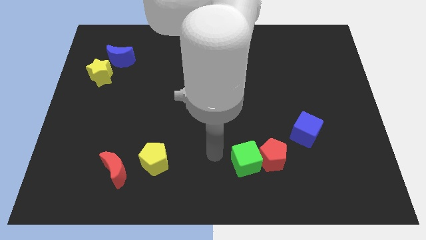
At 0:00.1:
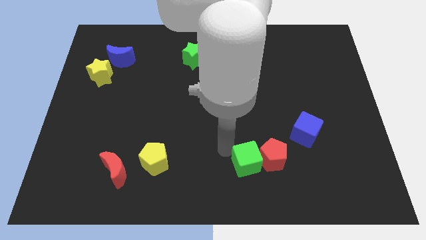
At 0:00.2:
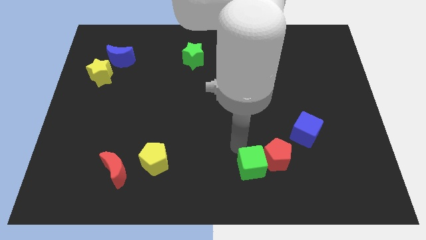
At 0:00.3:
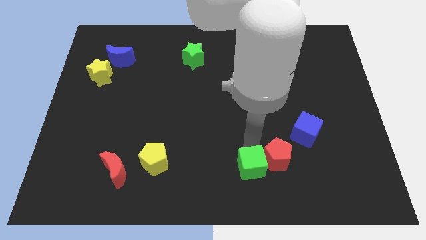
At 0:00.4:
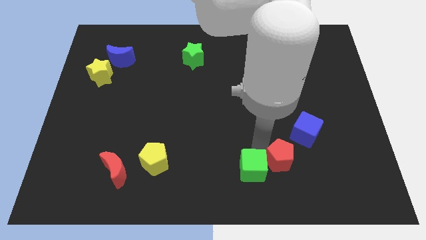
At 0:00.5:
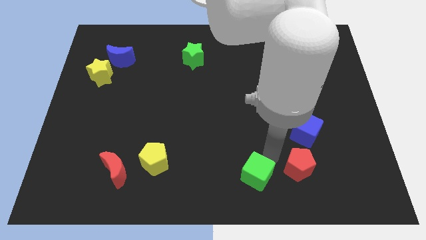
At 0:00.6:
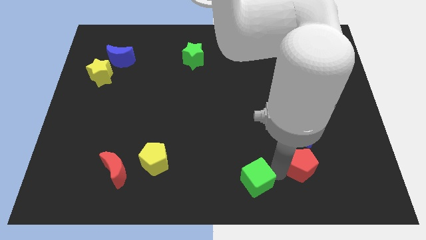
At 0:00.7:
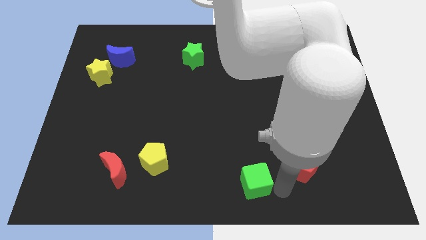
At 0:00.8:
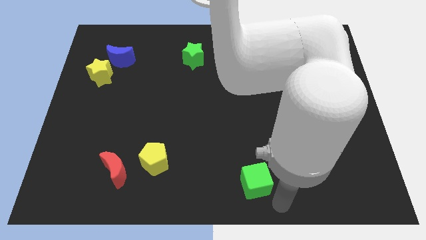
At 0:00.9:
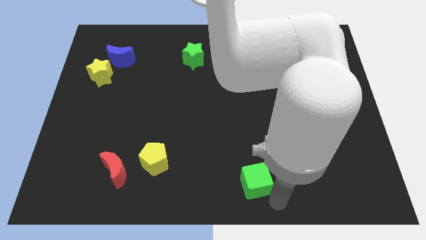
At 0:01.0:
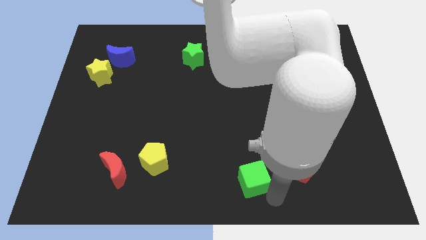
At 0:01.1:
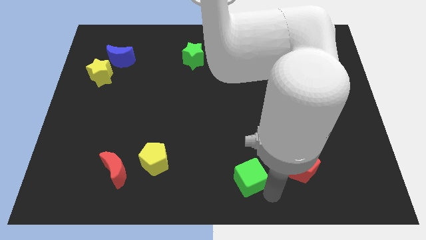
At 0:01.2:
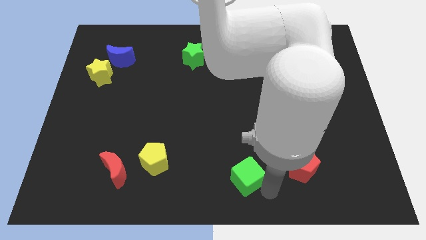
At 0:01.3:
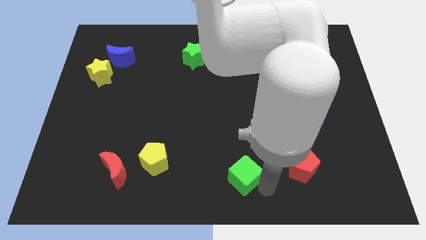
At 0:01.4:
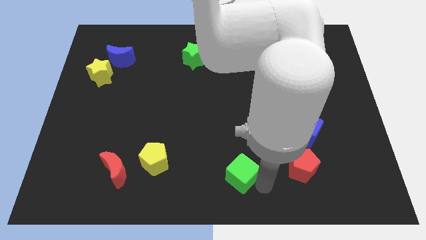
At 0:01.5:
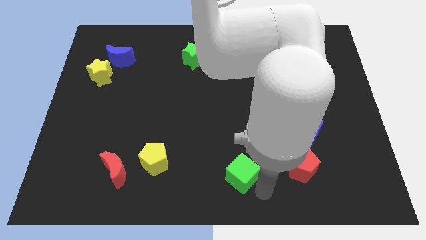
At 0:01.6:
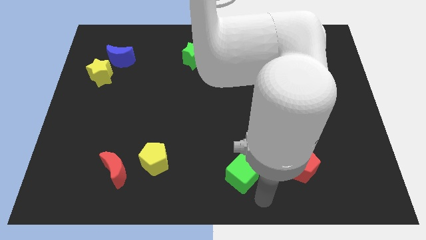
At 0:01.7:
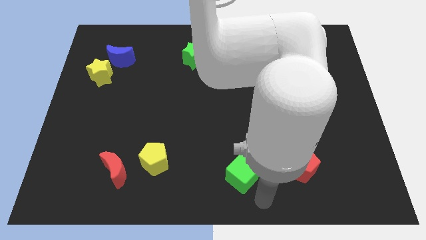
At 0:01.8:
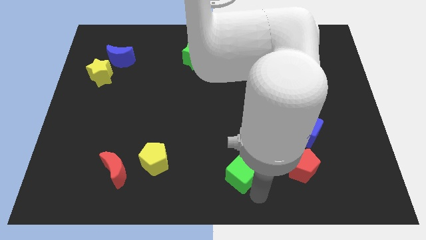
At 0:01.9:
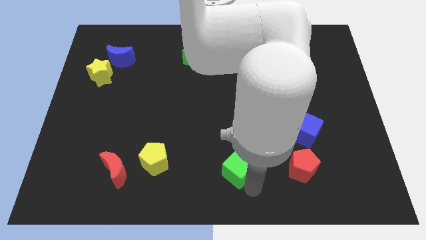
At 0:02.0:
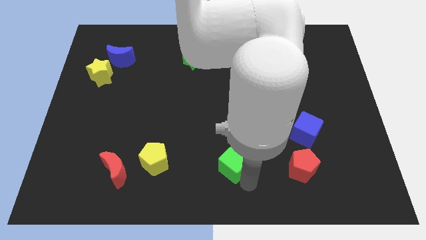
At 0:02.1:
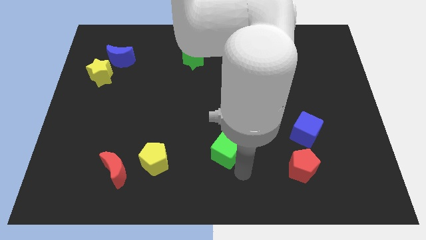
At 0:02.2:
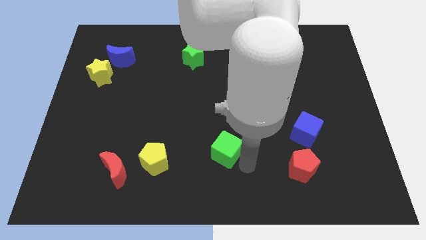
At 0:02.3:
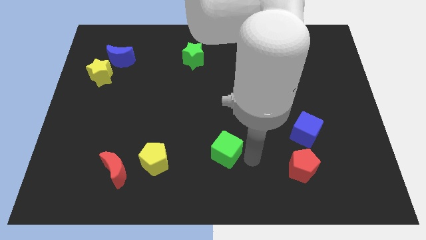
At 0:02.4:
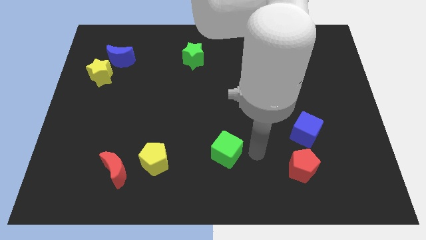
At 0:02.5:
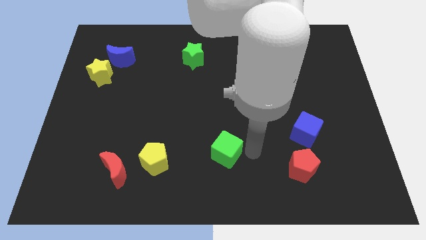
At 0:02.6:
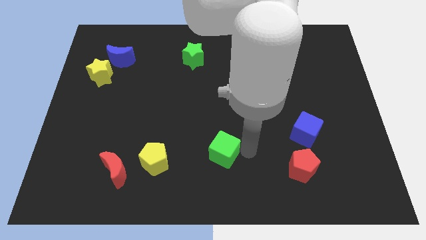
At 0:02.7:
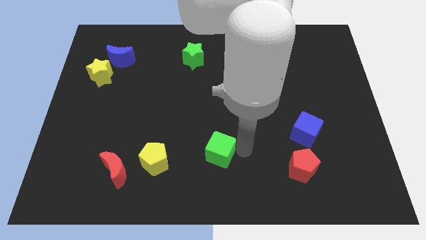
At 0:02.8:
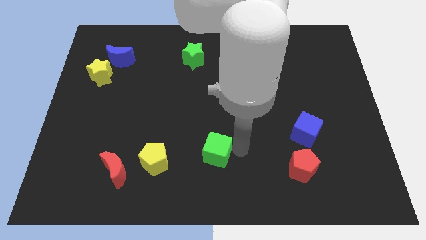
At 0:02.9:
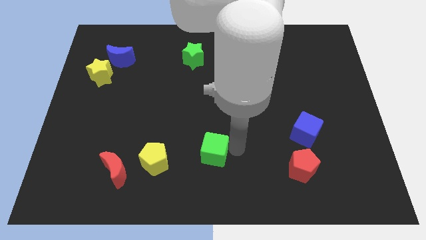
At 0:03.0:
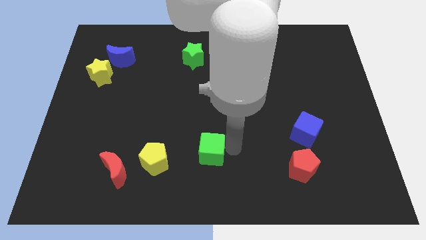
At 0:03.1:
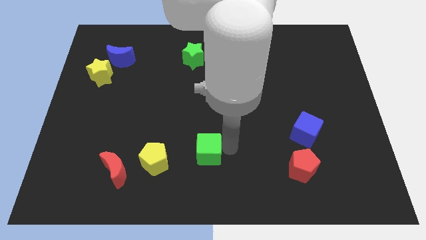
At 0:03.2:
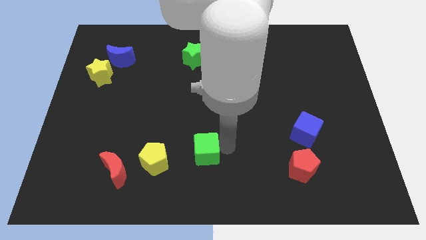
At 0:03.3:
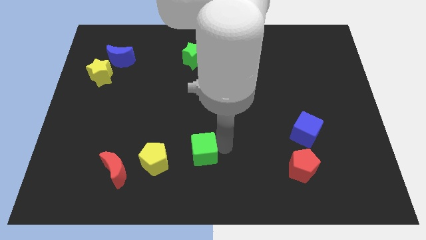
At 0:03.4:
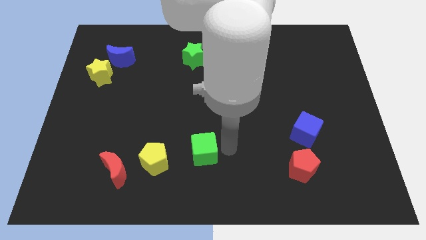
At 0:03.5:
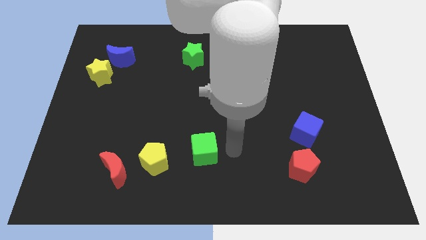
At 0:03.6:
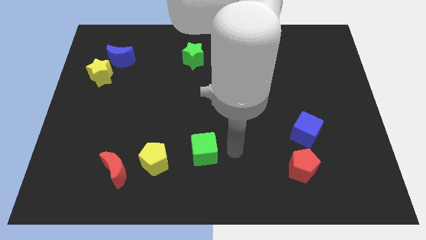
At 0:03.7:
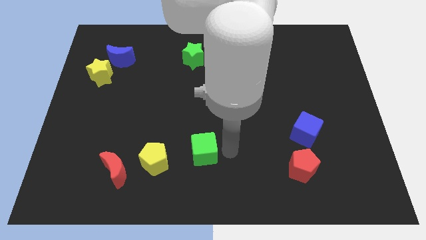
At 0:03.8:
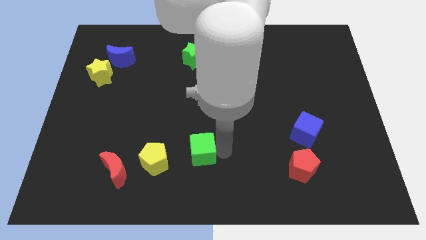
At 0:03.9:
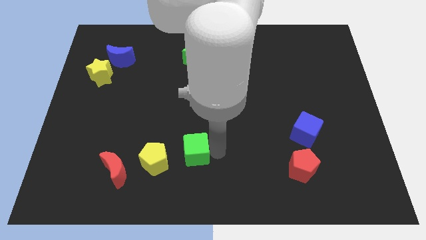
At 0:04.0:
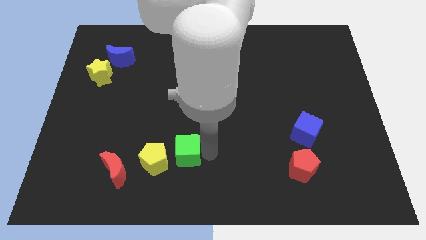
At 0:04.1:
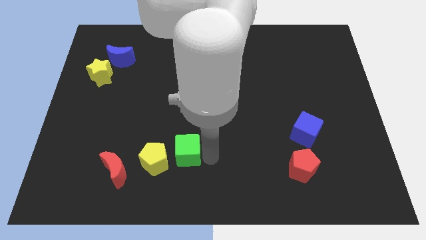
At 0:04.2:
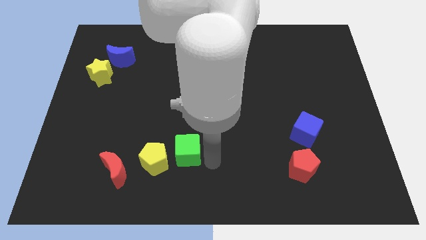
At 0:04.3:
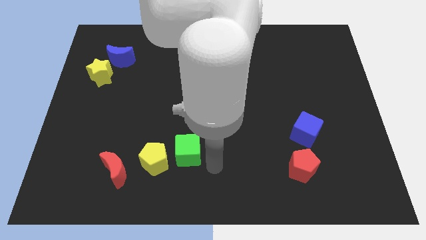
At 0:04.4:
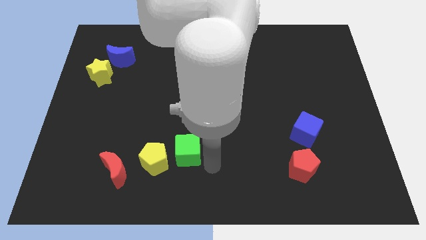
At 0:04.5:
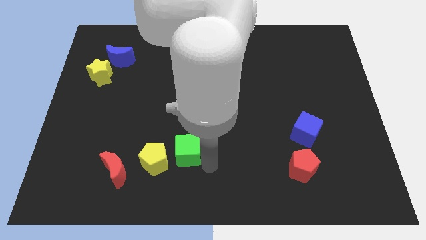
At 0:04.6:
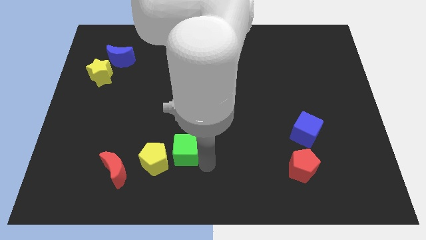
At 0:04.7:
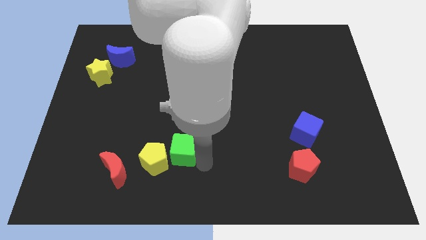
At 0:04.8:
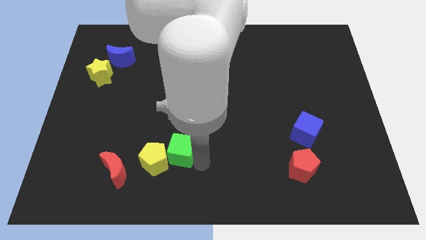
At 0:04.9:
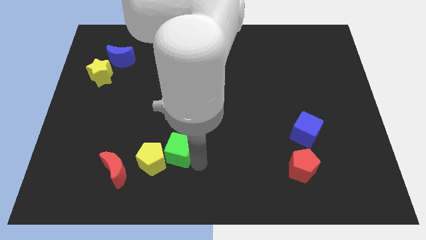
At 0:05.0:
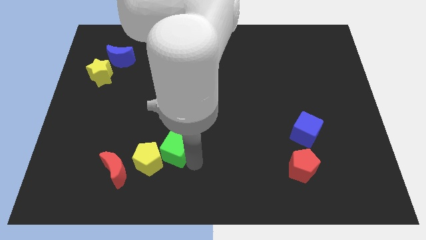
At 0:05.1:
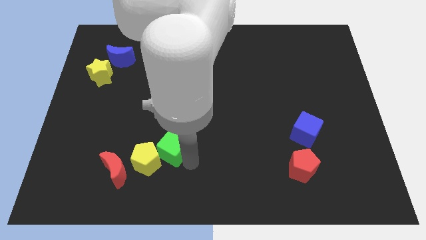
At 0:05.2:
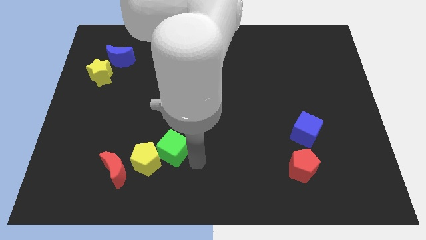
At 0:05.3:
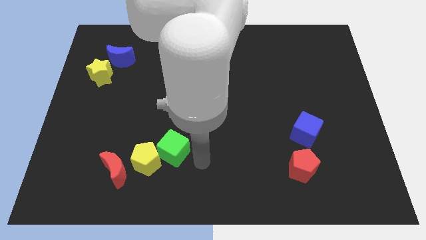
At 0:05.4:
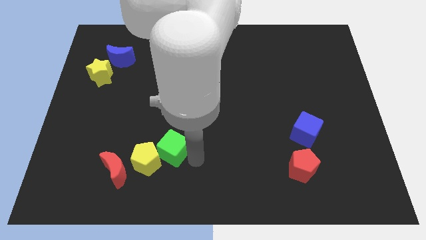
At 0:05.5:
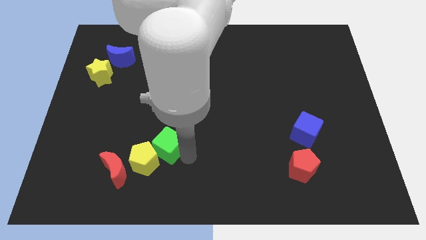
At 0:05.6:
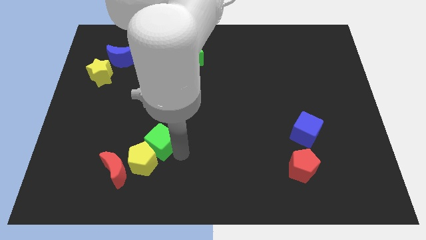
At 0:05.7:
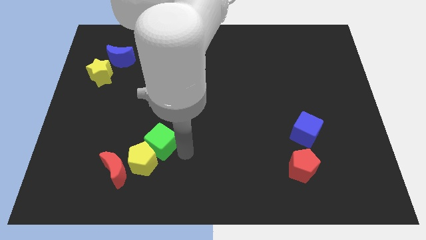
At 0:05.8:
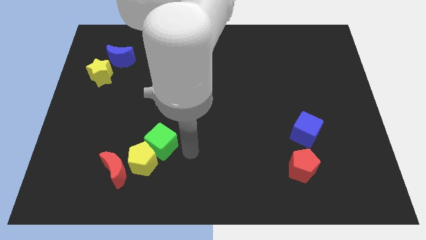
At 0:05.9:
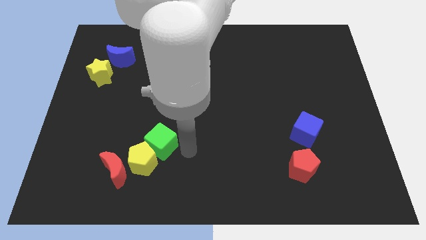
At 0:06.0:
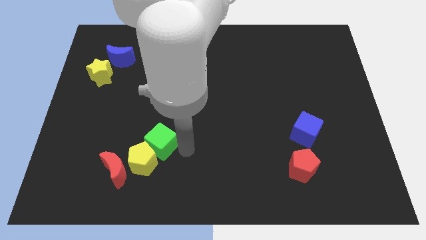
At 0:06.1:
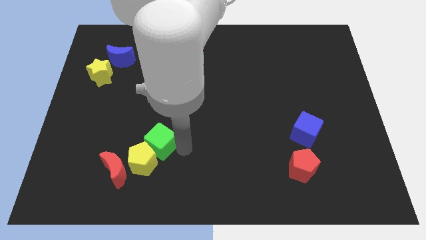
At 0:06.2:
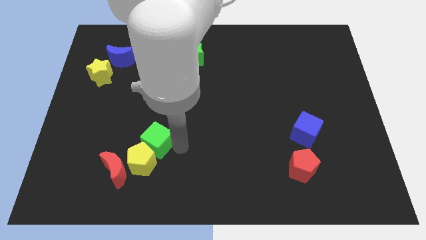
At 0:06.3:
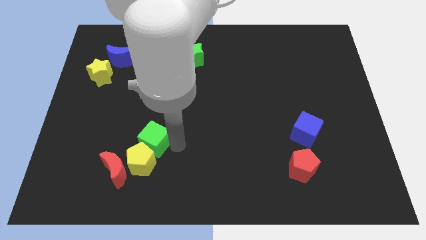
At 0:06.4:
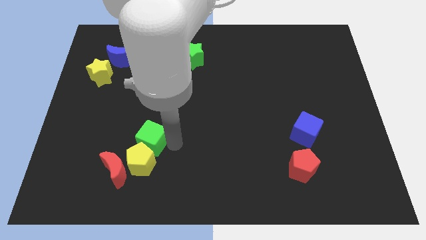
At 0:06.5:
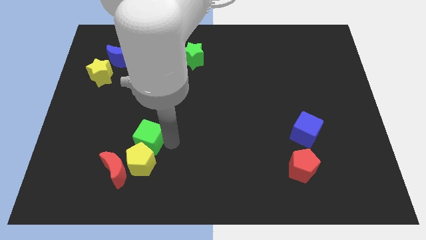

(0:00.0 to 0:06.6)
slide the green cube to the left

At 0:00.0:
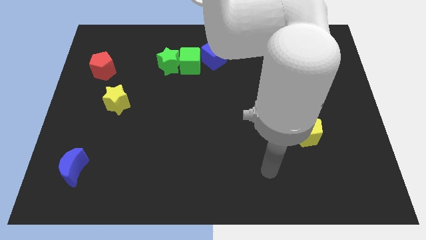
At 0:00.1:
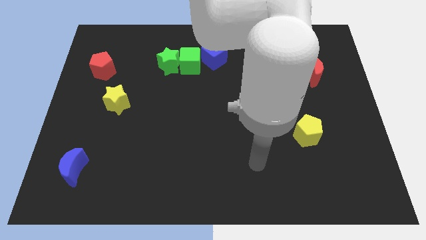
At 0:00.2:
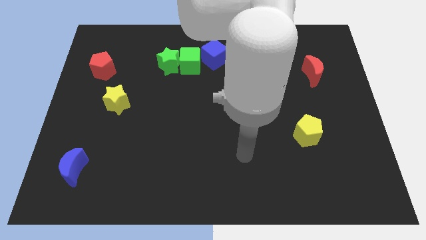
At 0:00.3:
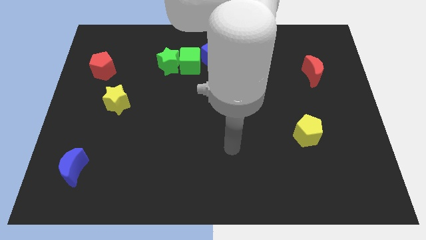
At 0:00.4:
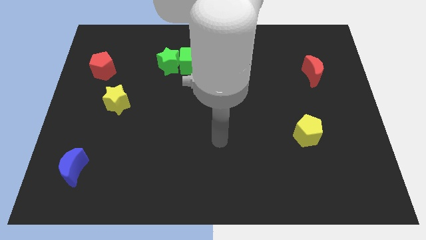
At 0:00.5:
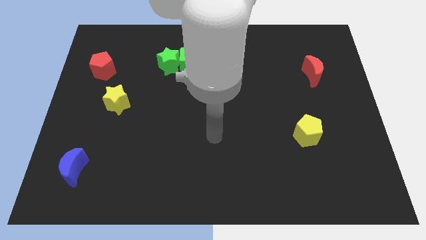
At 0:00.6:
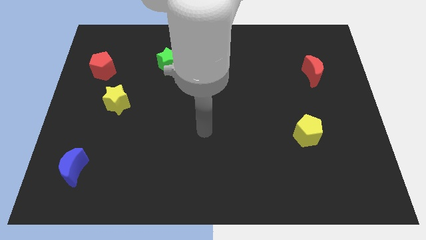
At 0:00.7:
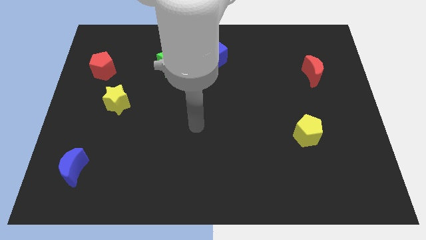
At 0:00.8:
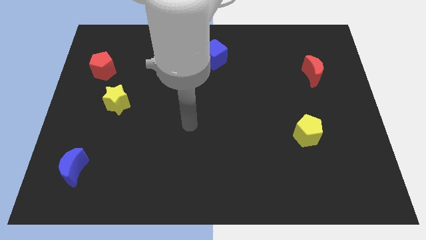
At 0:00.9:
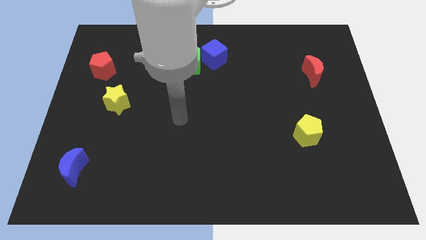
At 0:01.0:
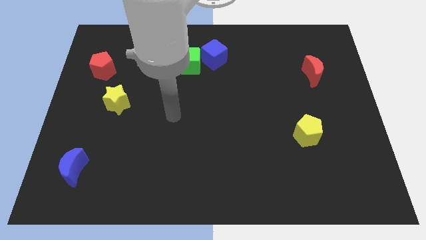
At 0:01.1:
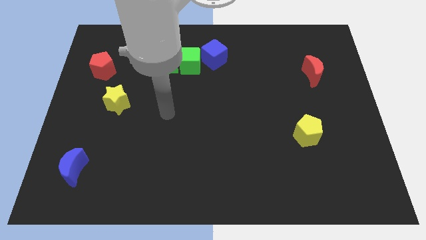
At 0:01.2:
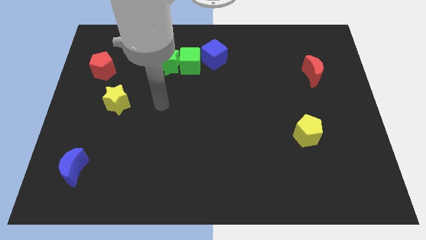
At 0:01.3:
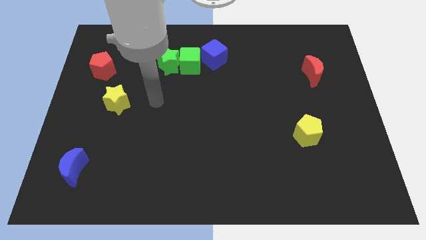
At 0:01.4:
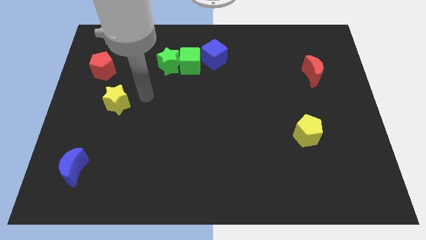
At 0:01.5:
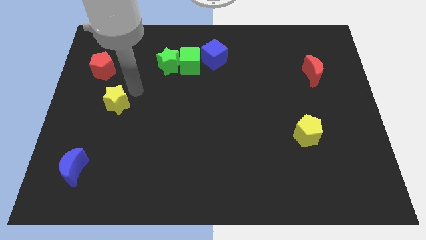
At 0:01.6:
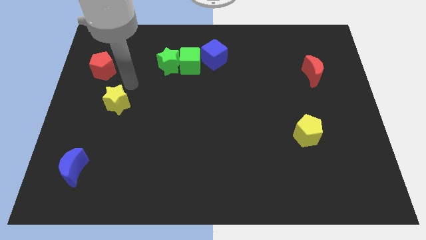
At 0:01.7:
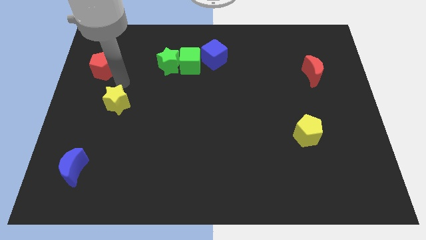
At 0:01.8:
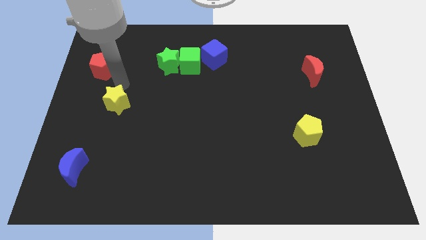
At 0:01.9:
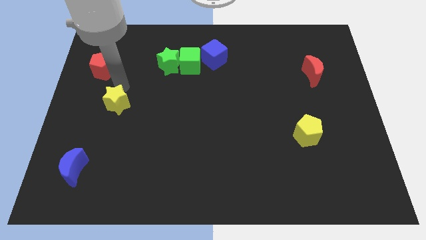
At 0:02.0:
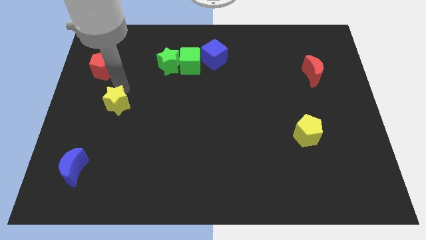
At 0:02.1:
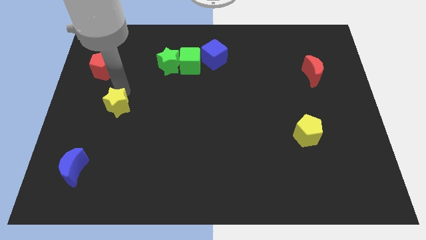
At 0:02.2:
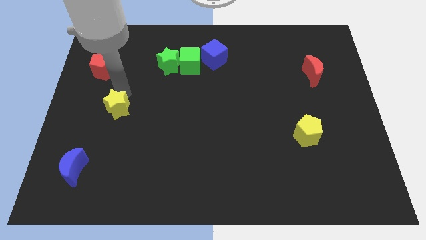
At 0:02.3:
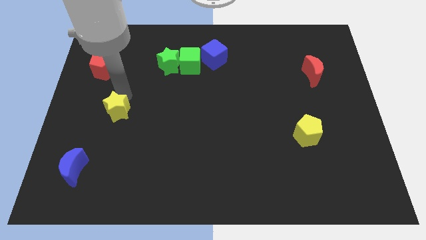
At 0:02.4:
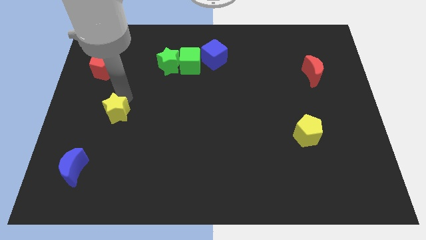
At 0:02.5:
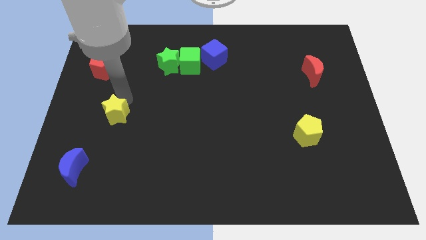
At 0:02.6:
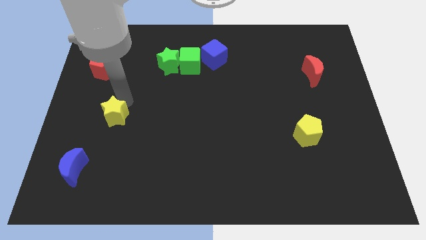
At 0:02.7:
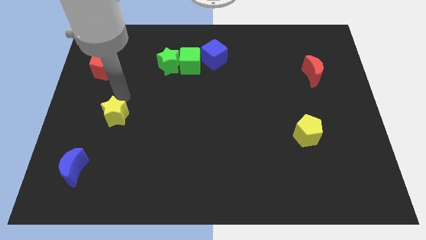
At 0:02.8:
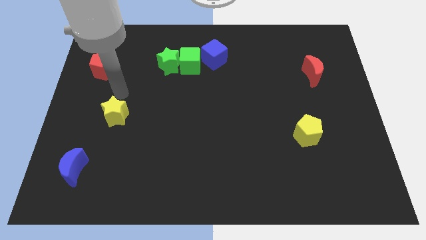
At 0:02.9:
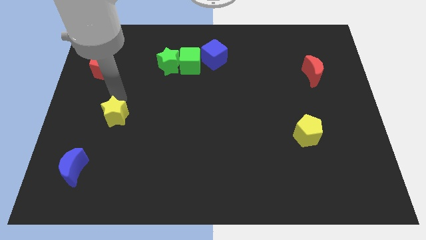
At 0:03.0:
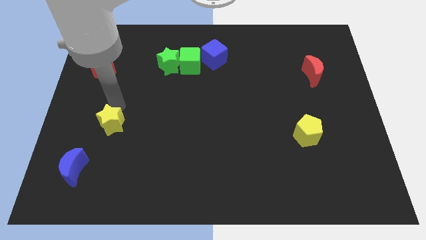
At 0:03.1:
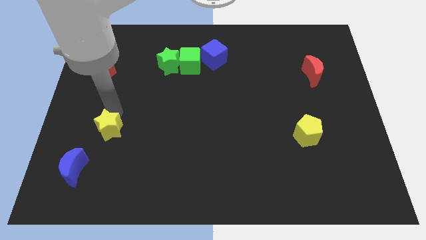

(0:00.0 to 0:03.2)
slightly push the yellow star down
